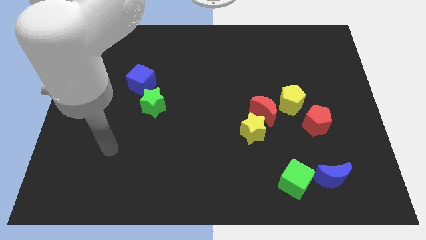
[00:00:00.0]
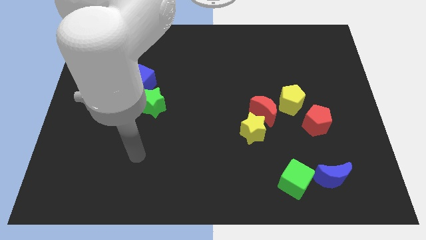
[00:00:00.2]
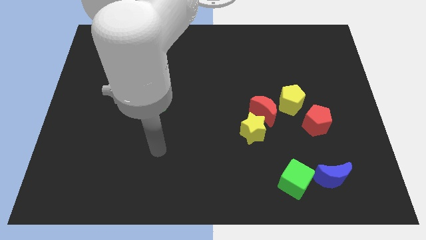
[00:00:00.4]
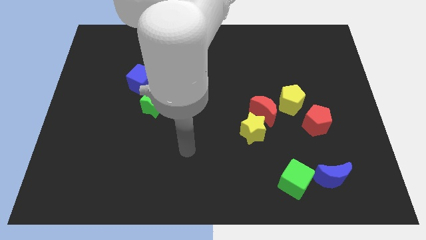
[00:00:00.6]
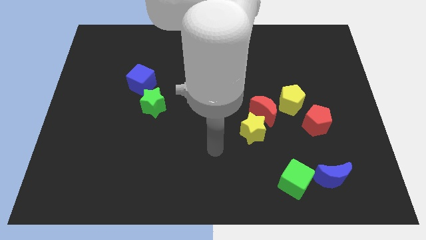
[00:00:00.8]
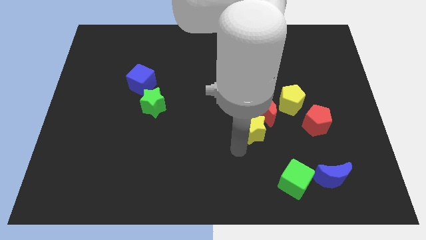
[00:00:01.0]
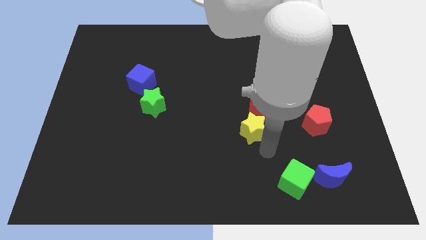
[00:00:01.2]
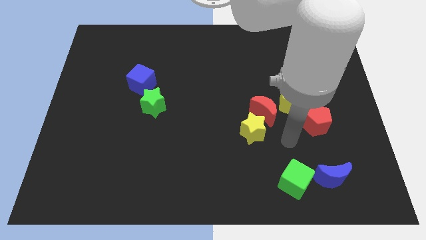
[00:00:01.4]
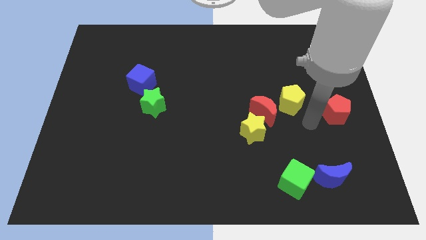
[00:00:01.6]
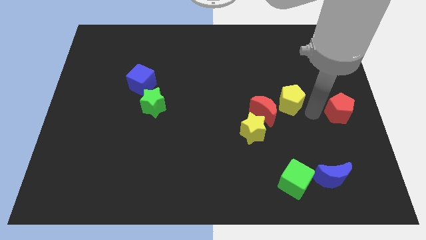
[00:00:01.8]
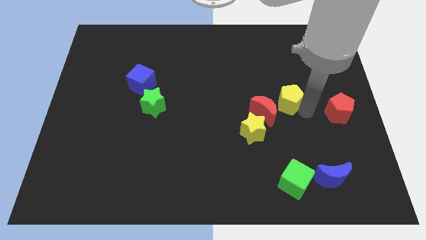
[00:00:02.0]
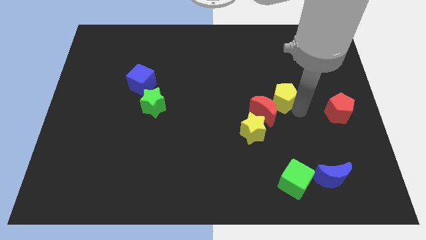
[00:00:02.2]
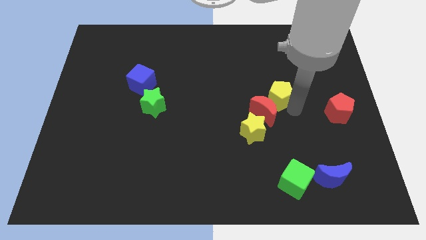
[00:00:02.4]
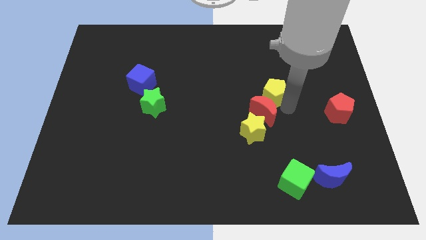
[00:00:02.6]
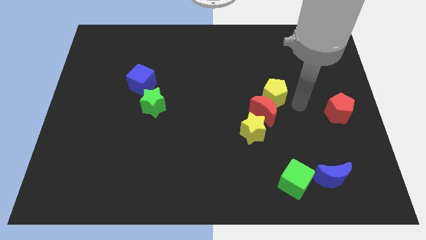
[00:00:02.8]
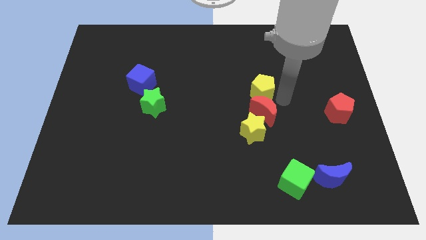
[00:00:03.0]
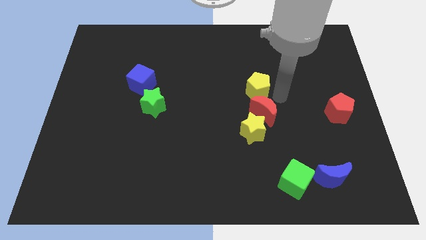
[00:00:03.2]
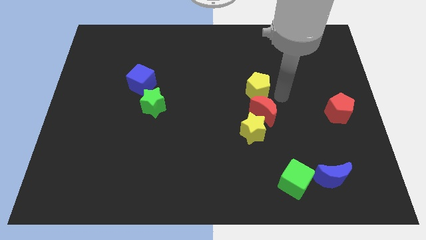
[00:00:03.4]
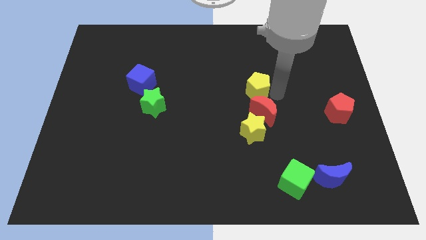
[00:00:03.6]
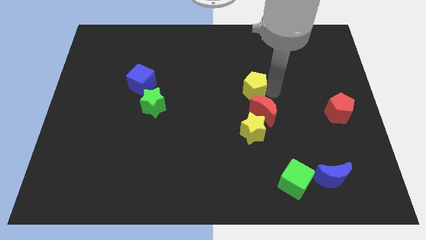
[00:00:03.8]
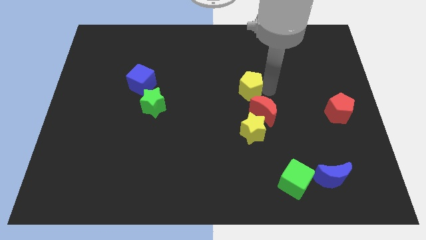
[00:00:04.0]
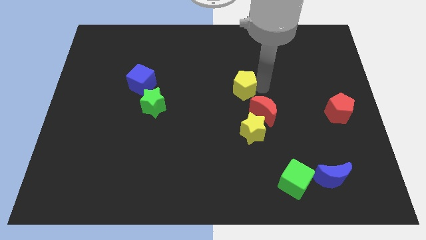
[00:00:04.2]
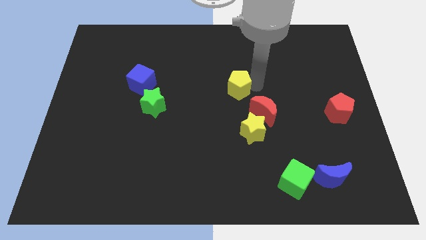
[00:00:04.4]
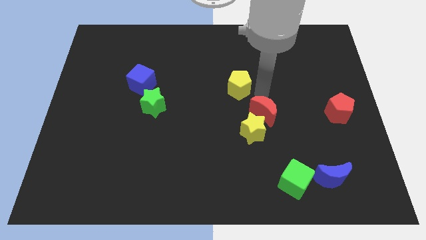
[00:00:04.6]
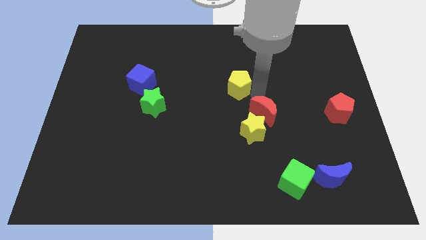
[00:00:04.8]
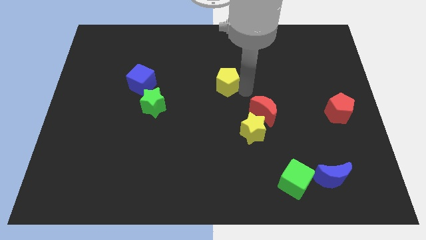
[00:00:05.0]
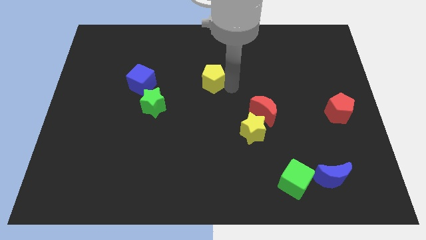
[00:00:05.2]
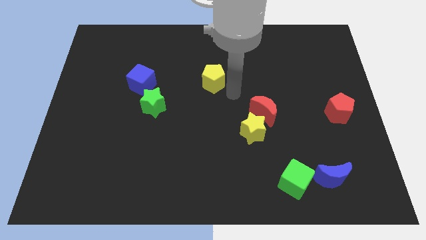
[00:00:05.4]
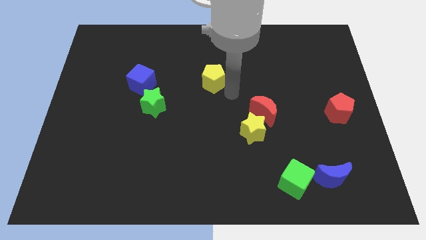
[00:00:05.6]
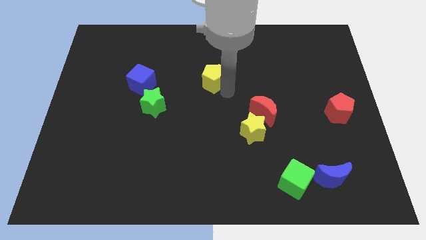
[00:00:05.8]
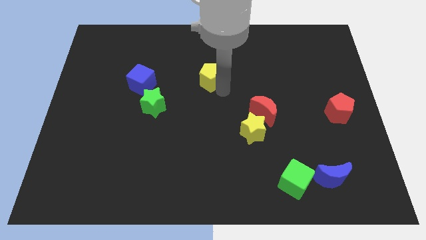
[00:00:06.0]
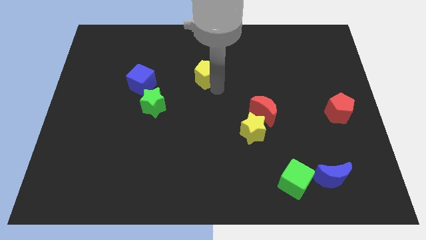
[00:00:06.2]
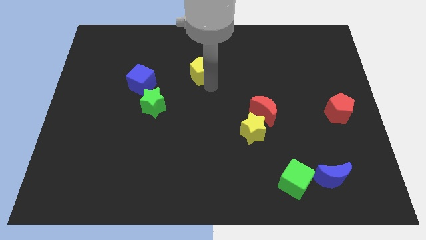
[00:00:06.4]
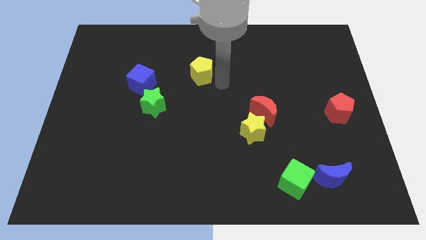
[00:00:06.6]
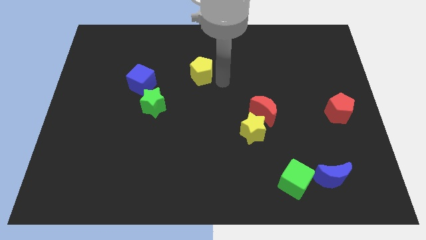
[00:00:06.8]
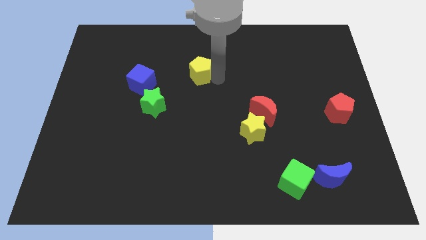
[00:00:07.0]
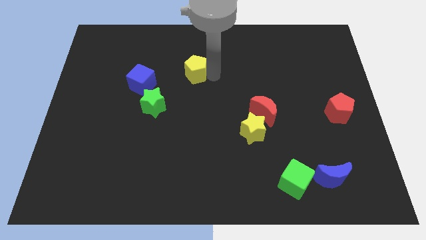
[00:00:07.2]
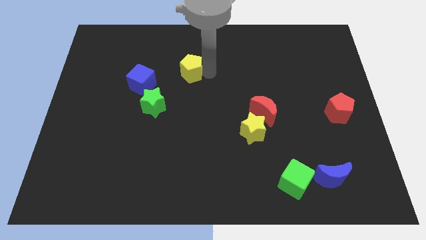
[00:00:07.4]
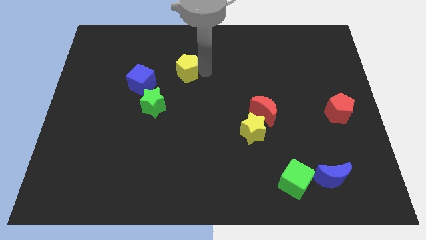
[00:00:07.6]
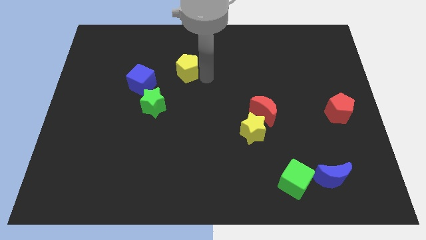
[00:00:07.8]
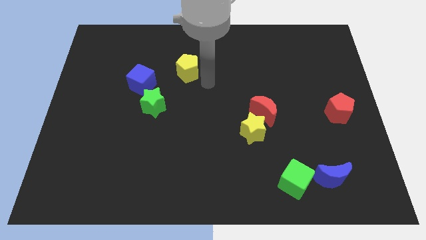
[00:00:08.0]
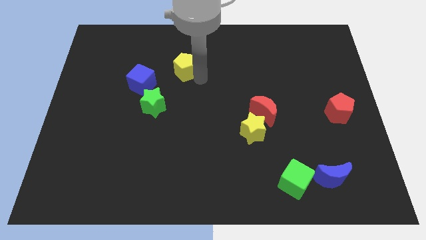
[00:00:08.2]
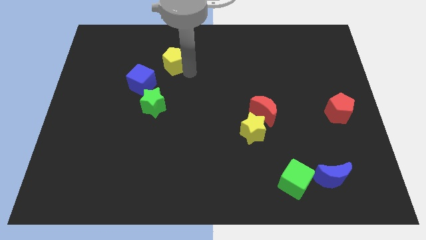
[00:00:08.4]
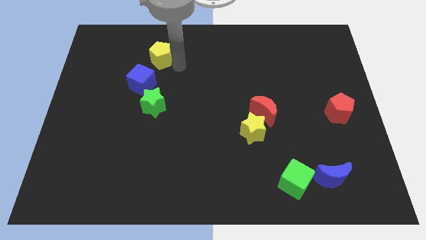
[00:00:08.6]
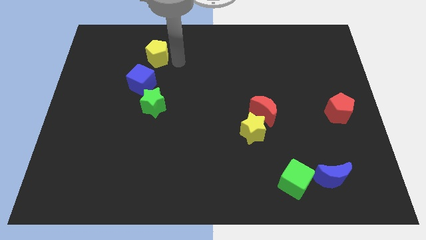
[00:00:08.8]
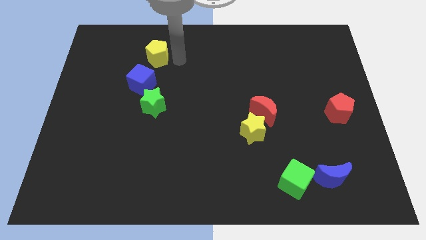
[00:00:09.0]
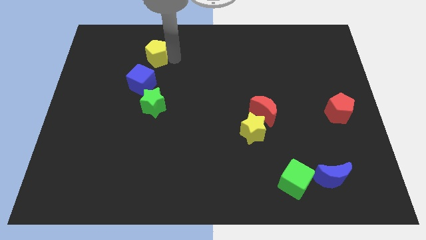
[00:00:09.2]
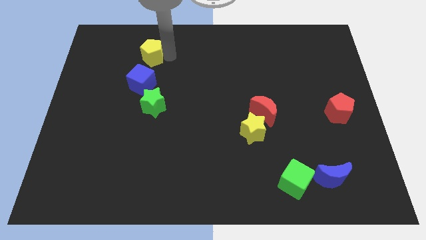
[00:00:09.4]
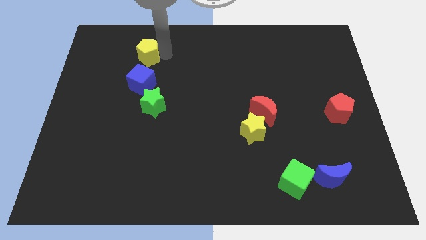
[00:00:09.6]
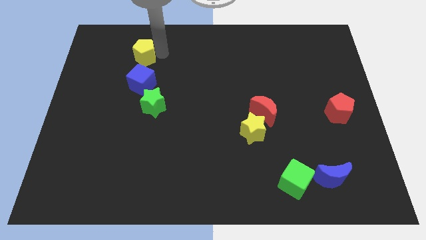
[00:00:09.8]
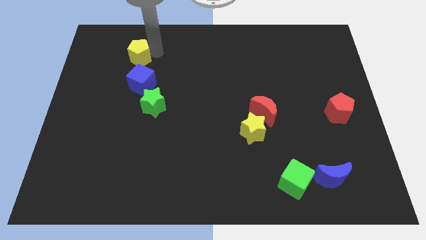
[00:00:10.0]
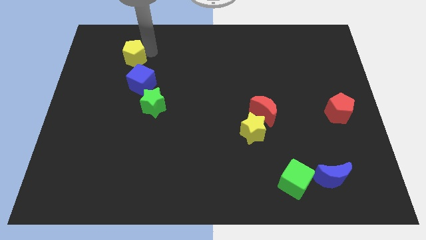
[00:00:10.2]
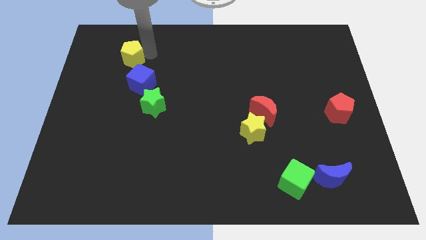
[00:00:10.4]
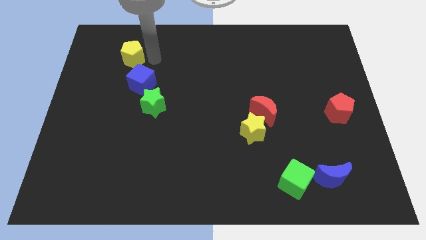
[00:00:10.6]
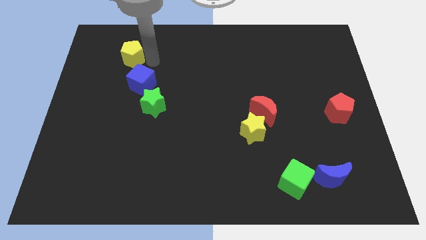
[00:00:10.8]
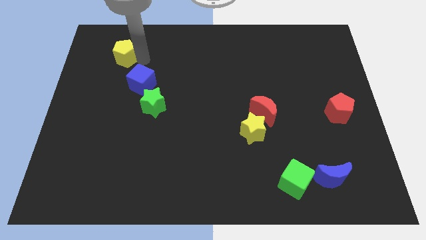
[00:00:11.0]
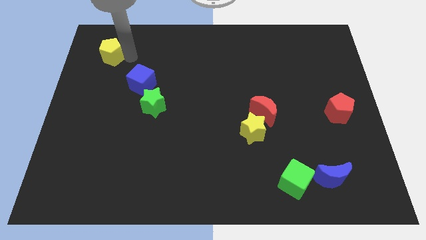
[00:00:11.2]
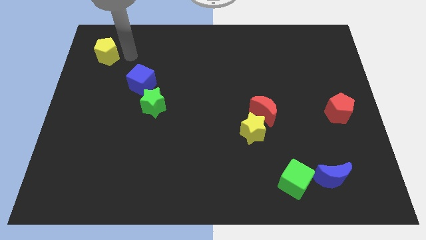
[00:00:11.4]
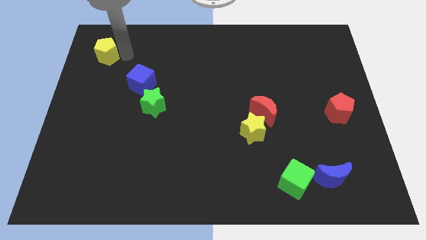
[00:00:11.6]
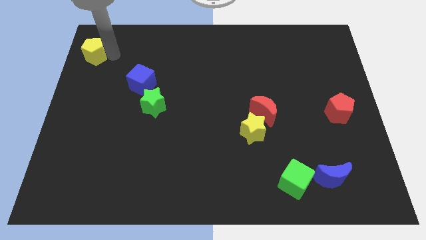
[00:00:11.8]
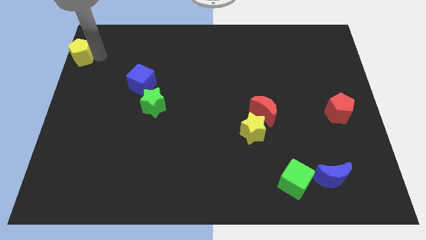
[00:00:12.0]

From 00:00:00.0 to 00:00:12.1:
put the yellow pentagon to the top left of the board
